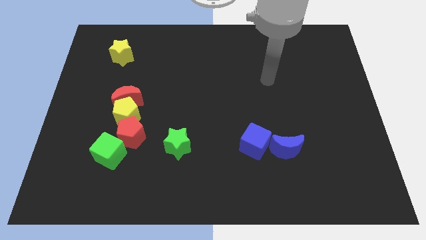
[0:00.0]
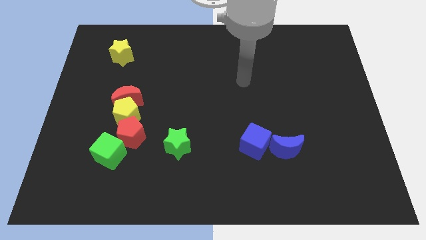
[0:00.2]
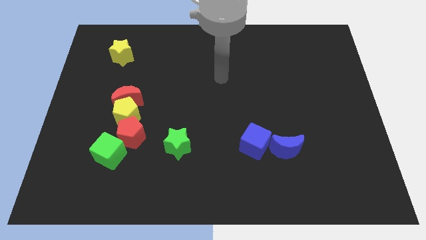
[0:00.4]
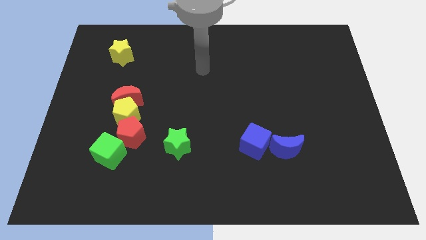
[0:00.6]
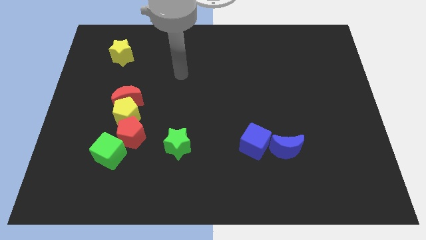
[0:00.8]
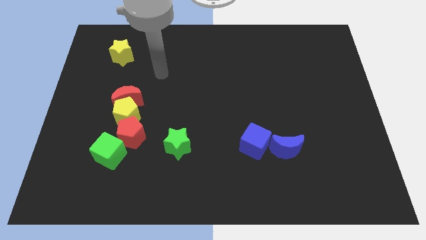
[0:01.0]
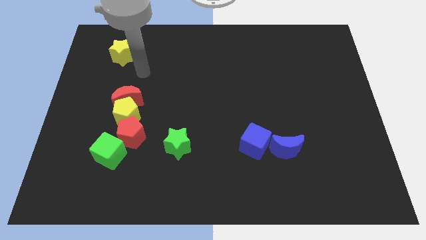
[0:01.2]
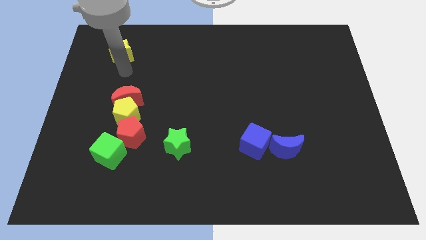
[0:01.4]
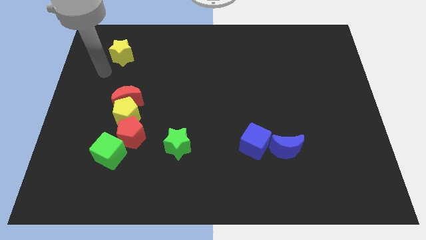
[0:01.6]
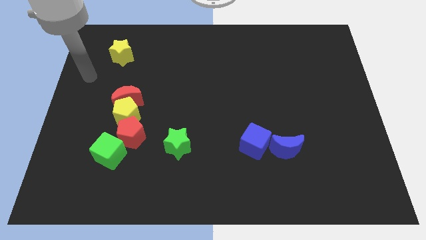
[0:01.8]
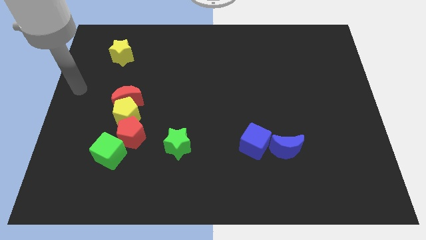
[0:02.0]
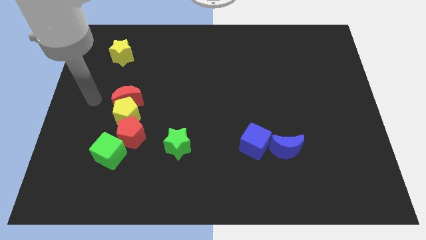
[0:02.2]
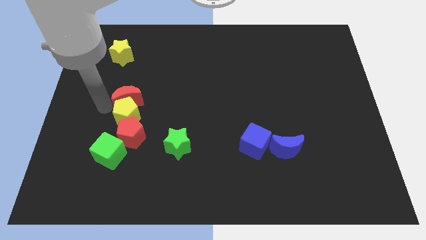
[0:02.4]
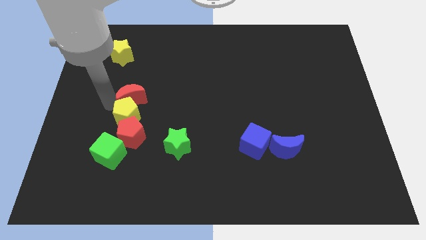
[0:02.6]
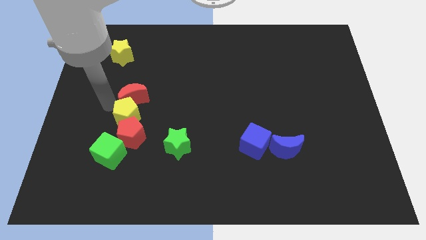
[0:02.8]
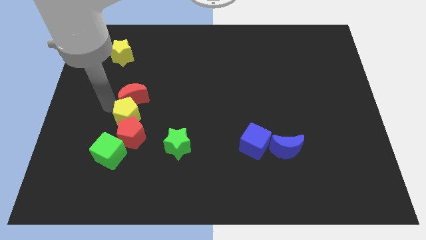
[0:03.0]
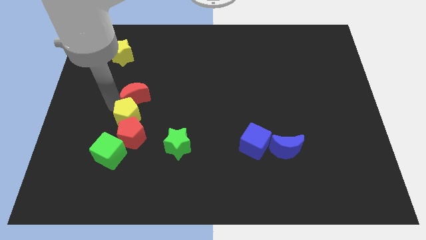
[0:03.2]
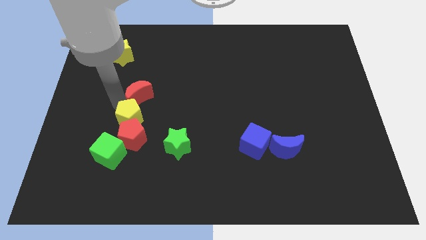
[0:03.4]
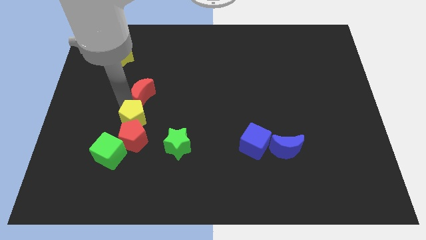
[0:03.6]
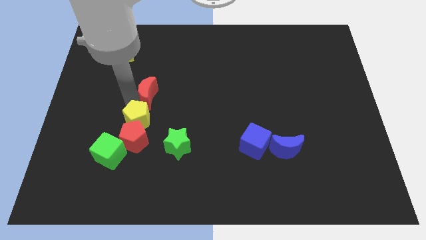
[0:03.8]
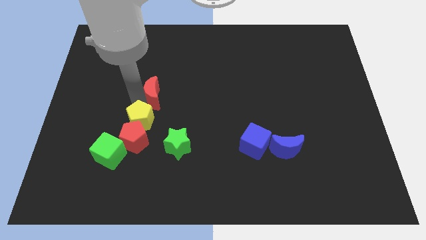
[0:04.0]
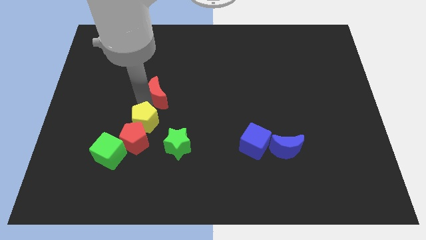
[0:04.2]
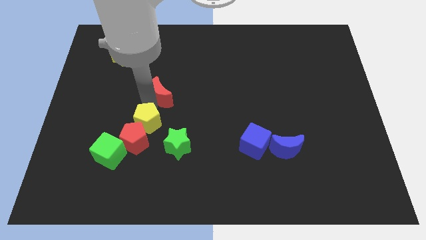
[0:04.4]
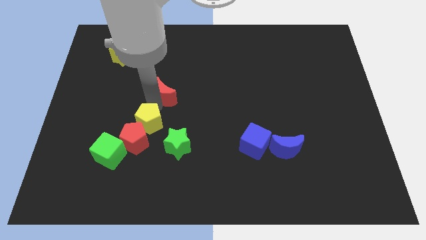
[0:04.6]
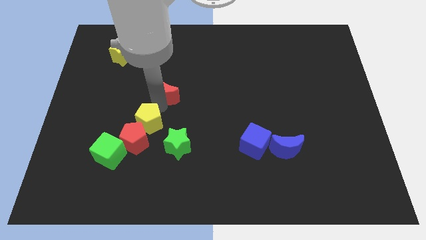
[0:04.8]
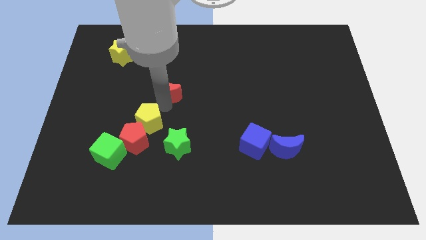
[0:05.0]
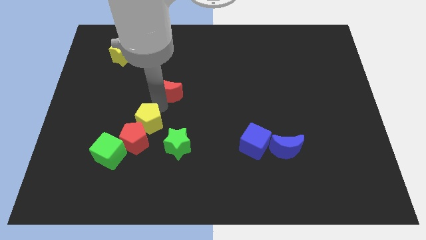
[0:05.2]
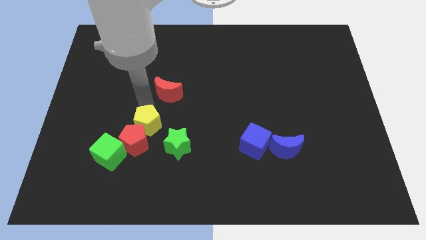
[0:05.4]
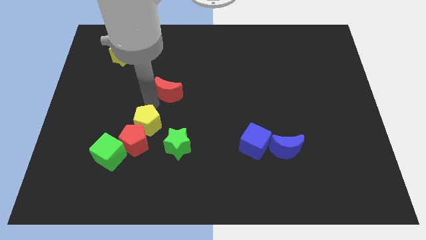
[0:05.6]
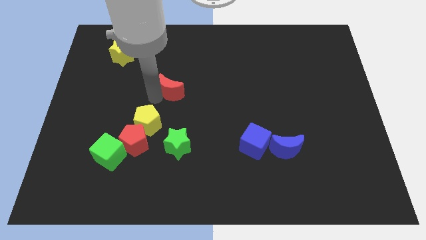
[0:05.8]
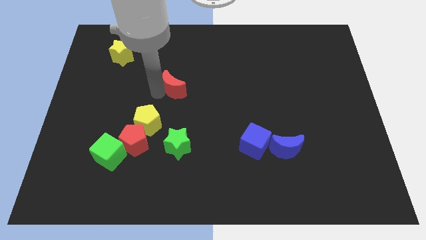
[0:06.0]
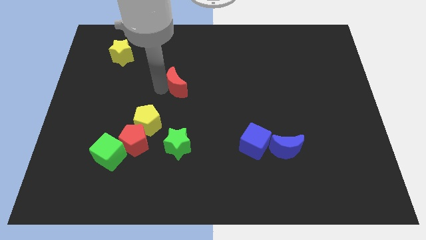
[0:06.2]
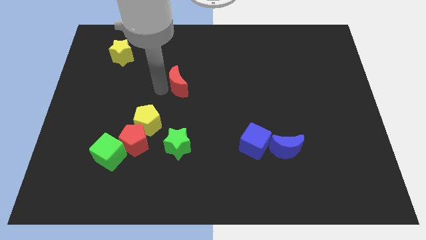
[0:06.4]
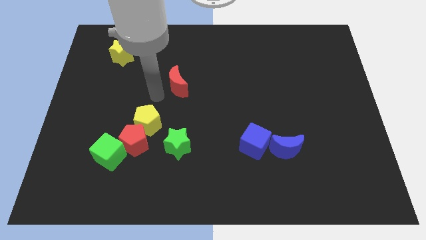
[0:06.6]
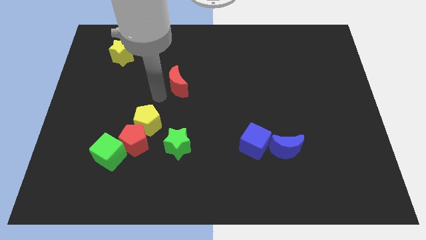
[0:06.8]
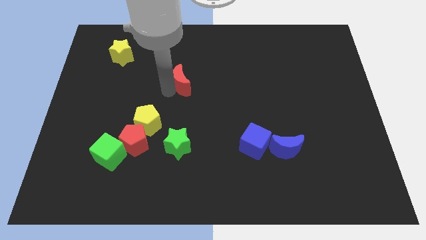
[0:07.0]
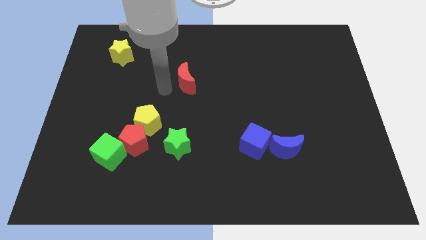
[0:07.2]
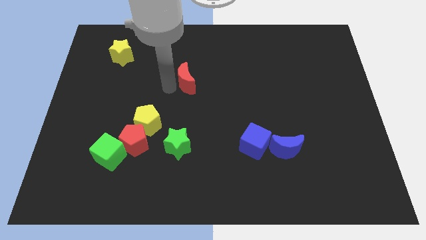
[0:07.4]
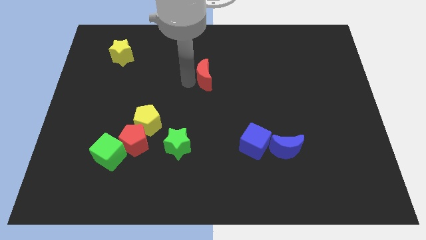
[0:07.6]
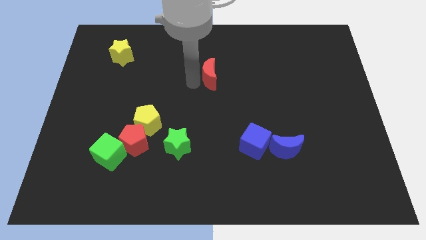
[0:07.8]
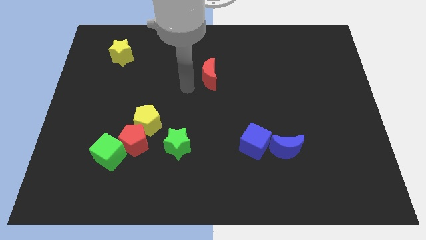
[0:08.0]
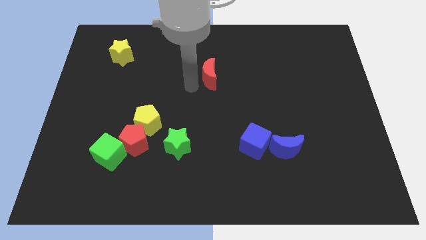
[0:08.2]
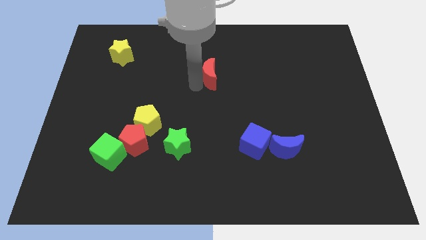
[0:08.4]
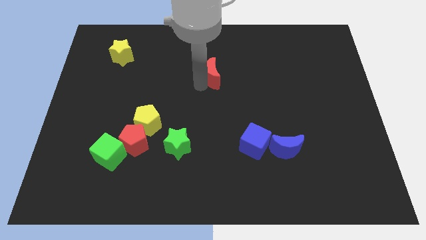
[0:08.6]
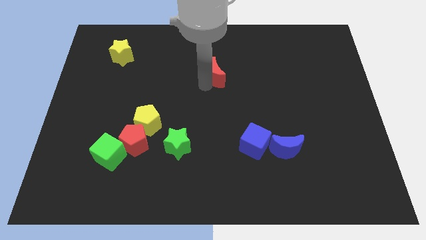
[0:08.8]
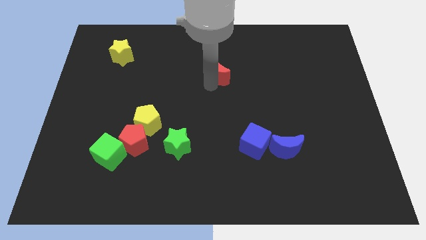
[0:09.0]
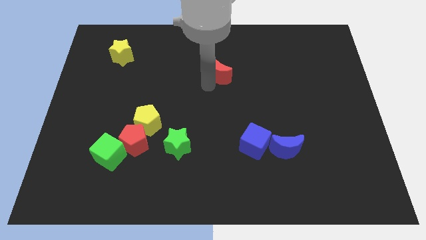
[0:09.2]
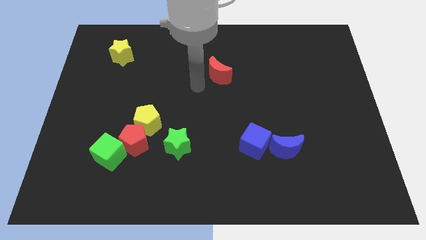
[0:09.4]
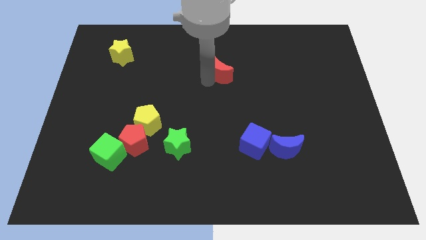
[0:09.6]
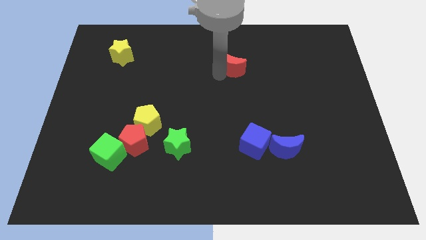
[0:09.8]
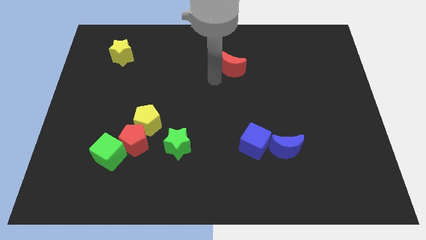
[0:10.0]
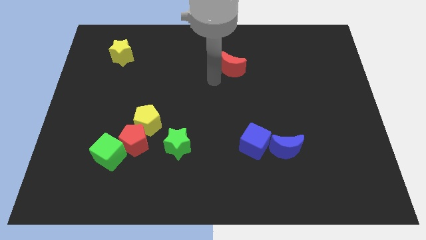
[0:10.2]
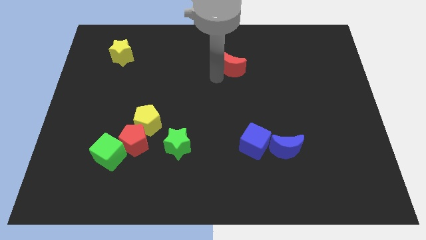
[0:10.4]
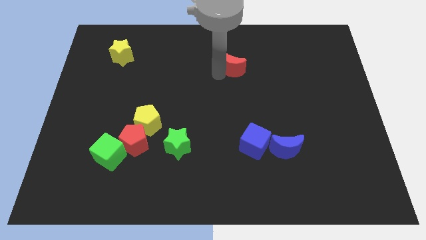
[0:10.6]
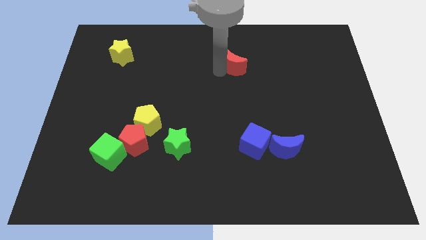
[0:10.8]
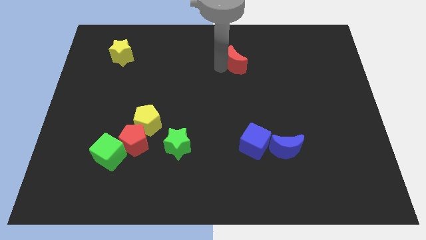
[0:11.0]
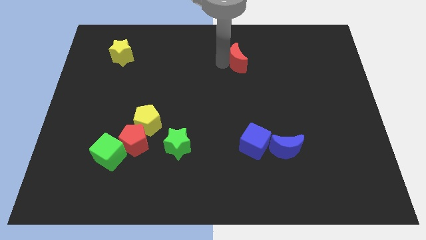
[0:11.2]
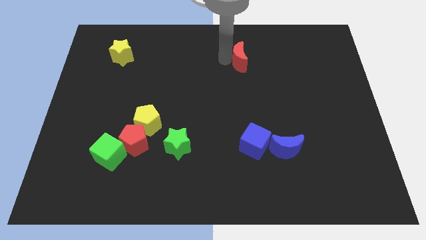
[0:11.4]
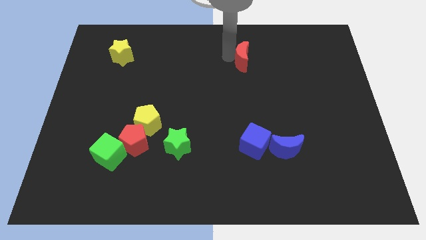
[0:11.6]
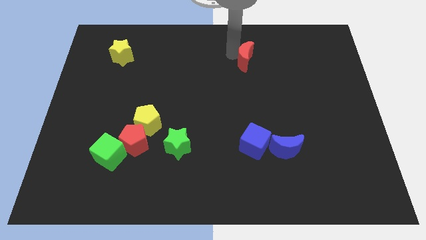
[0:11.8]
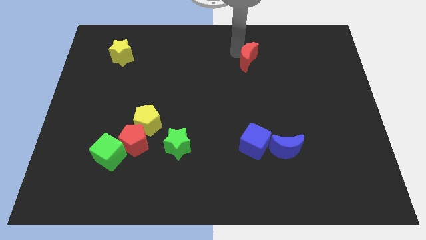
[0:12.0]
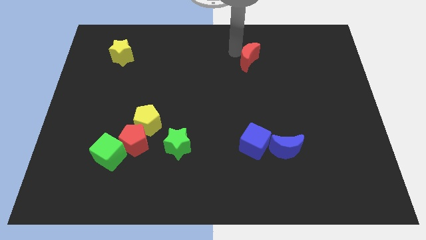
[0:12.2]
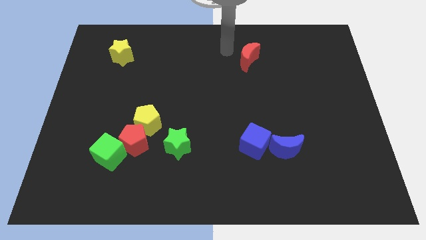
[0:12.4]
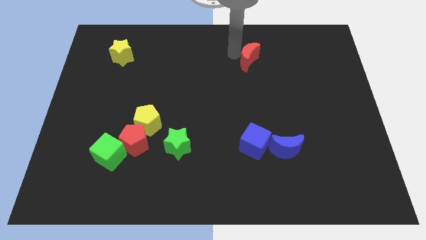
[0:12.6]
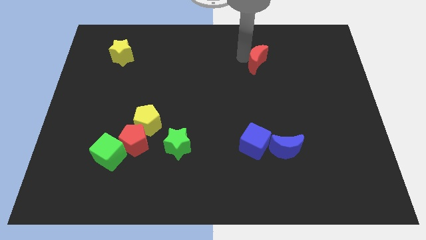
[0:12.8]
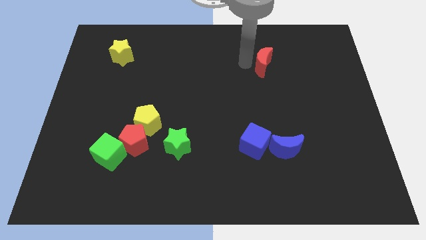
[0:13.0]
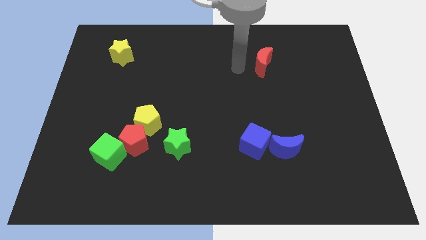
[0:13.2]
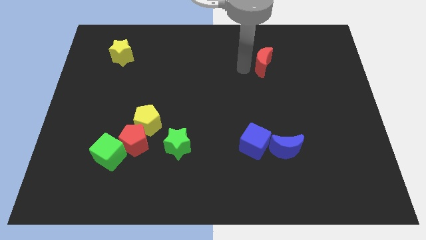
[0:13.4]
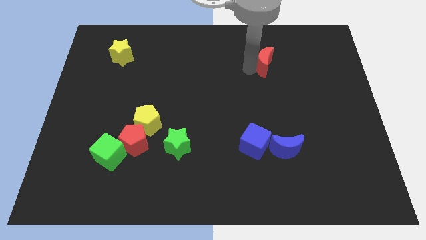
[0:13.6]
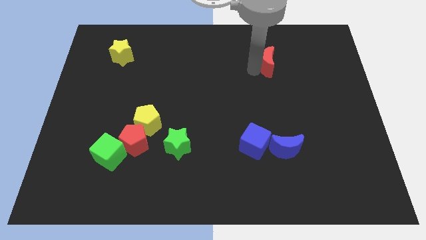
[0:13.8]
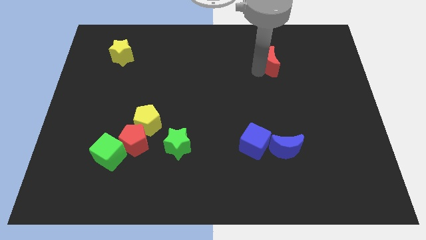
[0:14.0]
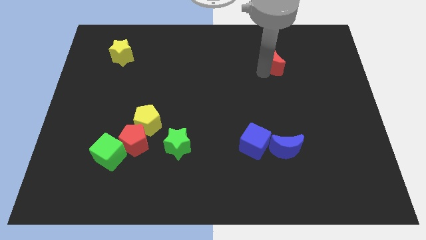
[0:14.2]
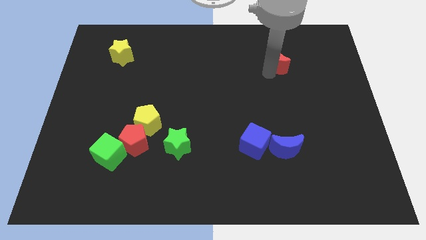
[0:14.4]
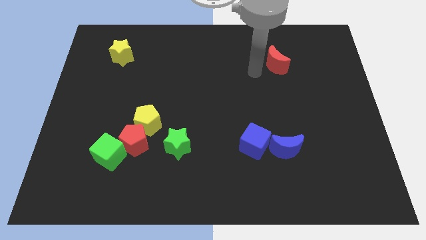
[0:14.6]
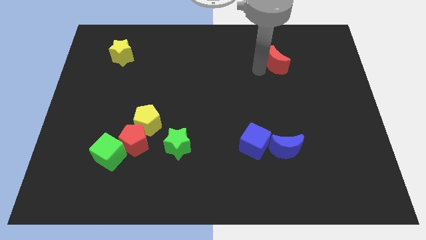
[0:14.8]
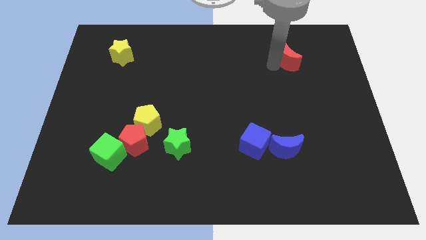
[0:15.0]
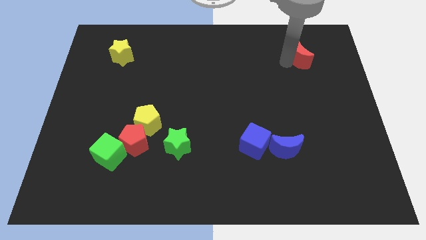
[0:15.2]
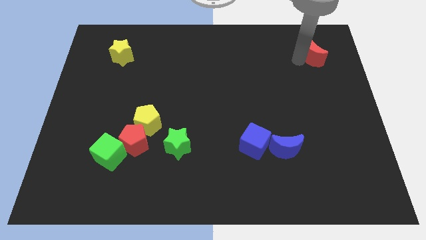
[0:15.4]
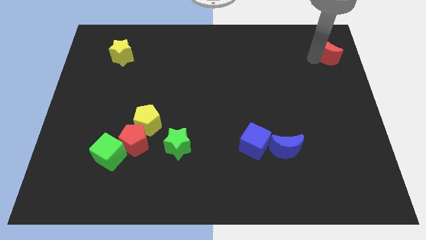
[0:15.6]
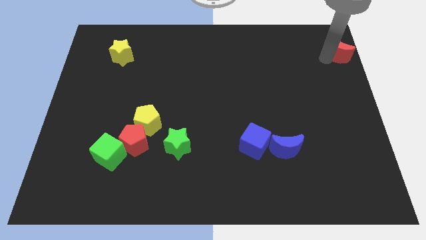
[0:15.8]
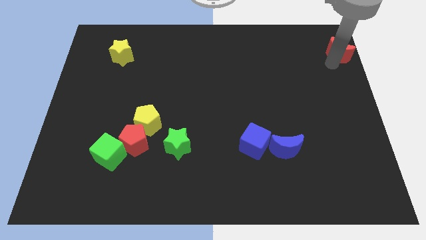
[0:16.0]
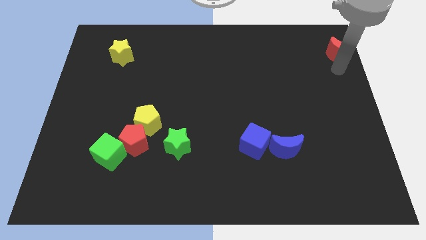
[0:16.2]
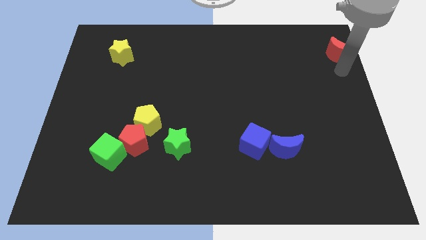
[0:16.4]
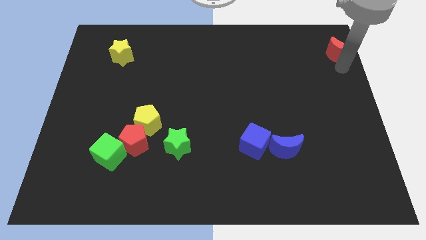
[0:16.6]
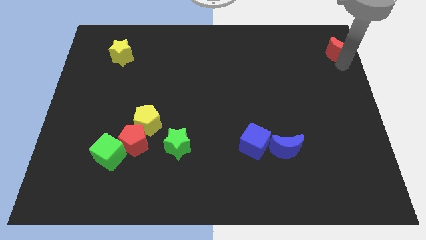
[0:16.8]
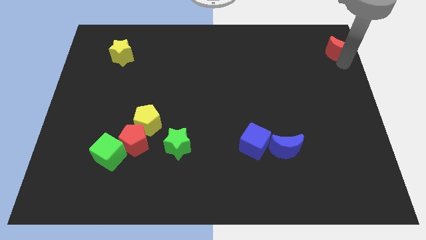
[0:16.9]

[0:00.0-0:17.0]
push the red moon to the top right corner
